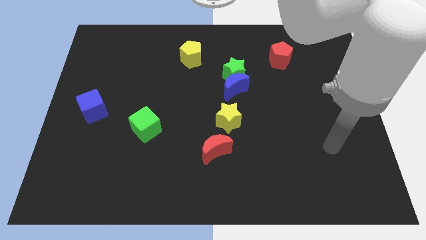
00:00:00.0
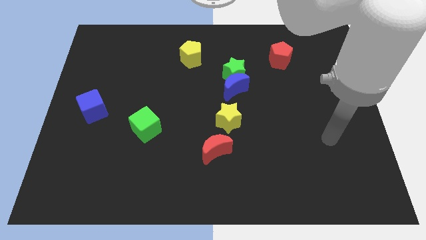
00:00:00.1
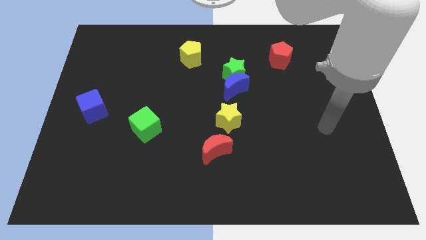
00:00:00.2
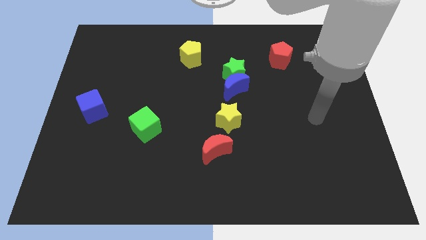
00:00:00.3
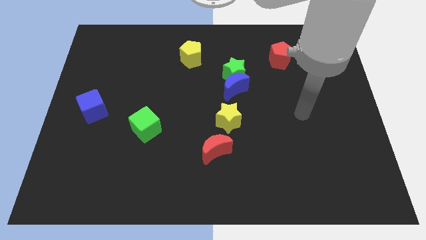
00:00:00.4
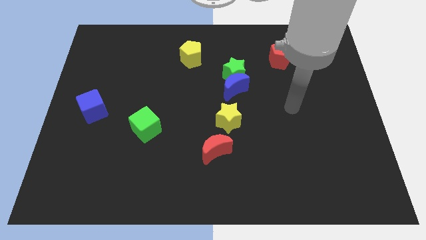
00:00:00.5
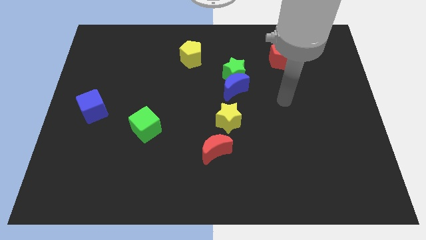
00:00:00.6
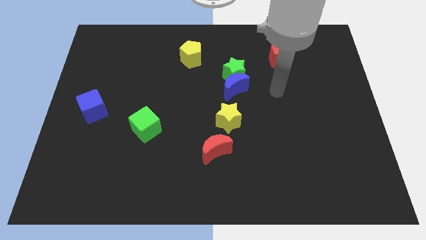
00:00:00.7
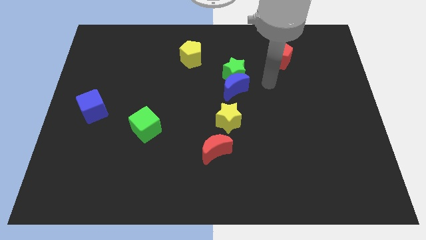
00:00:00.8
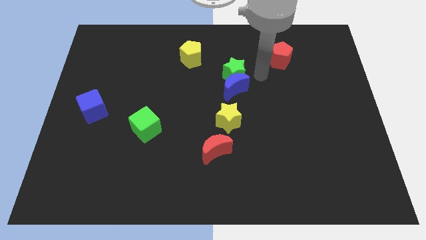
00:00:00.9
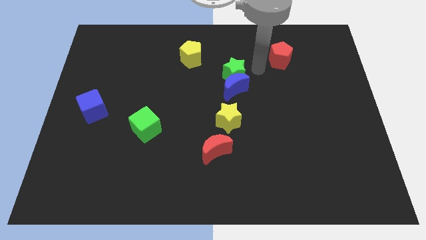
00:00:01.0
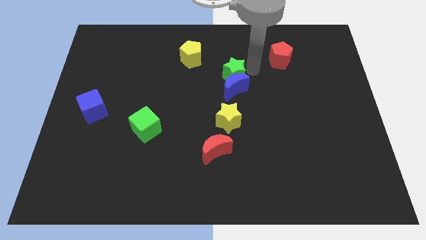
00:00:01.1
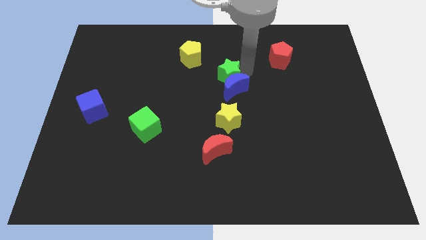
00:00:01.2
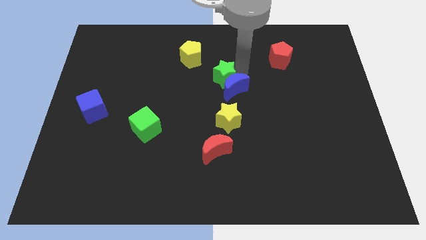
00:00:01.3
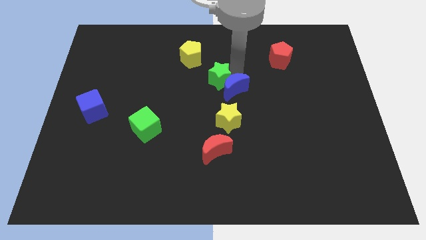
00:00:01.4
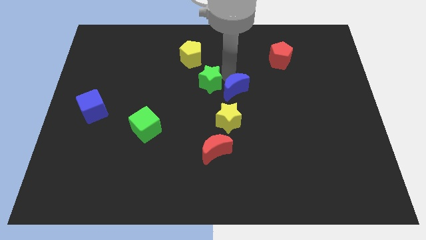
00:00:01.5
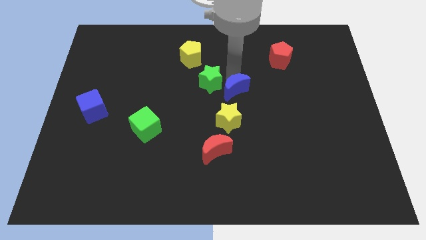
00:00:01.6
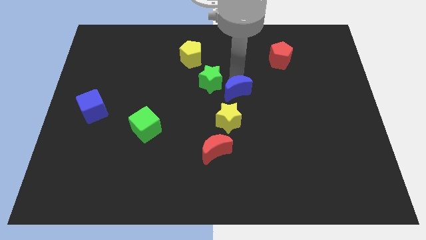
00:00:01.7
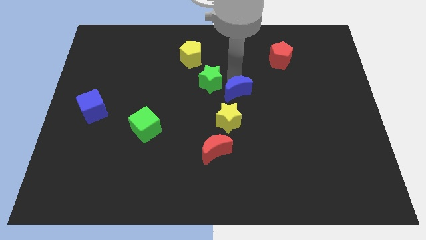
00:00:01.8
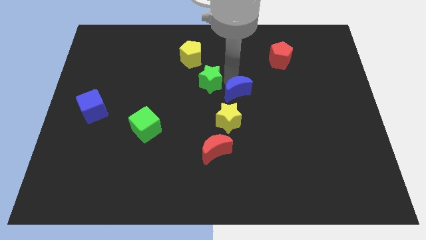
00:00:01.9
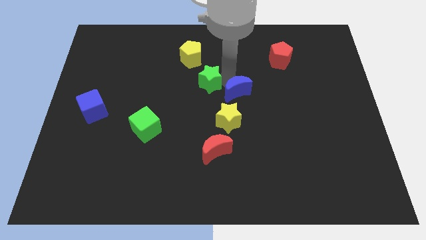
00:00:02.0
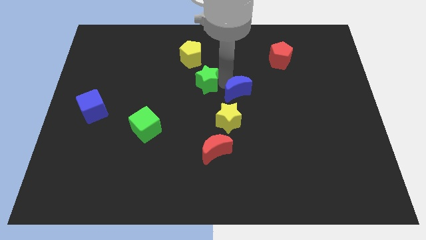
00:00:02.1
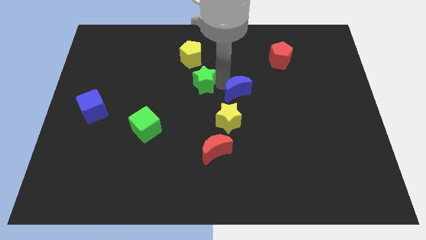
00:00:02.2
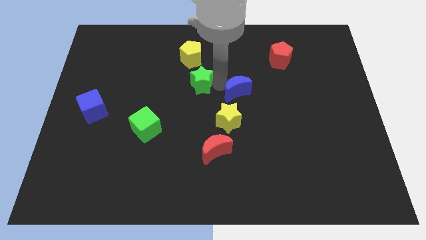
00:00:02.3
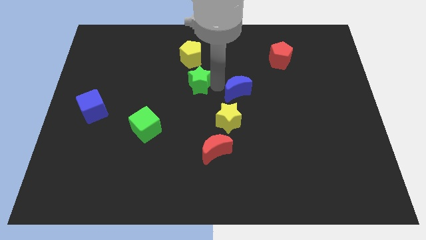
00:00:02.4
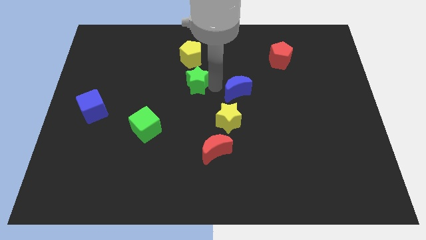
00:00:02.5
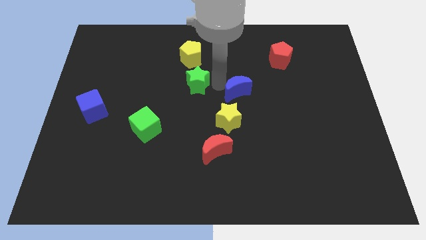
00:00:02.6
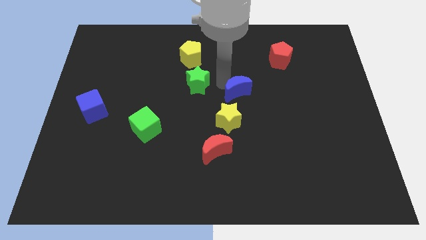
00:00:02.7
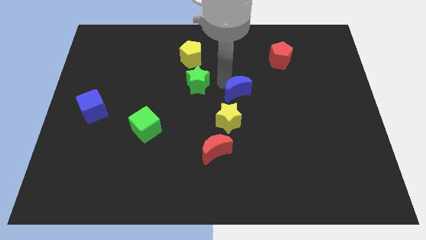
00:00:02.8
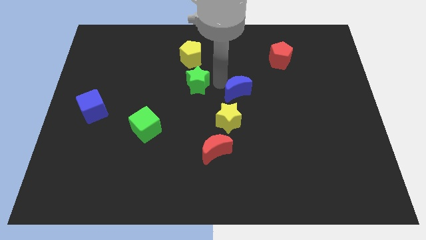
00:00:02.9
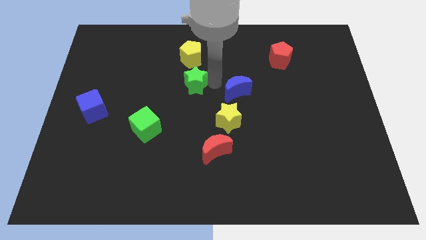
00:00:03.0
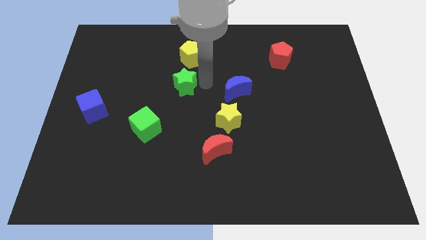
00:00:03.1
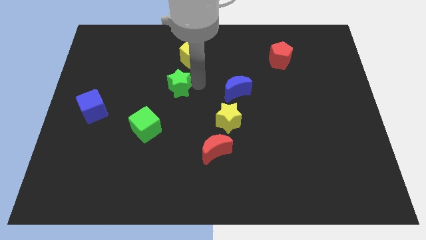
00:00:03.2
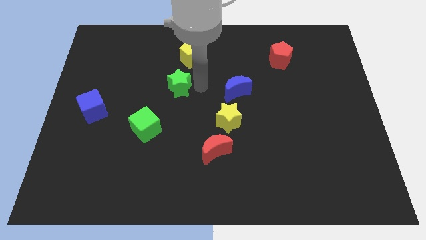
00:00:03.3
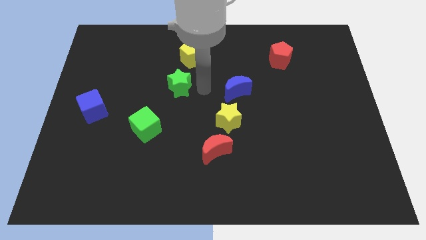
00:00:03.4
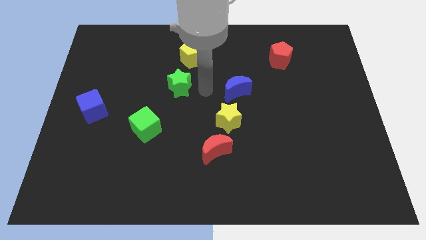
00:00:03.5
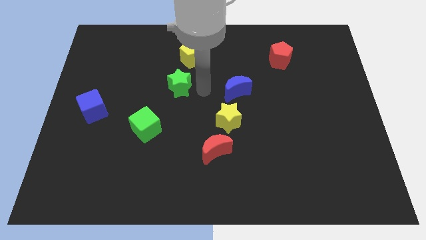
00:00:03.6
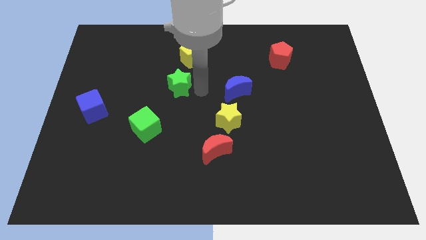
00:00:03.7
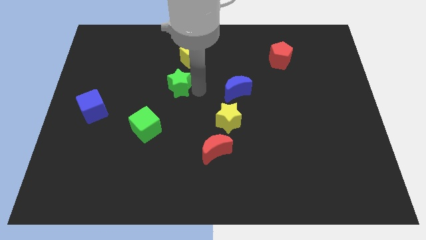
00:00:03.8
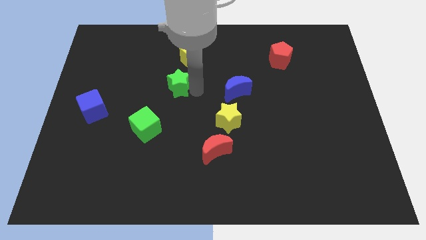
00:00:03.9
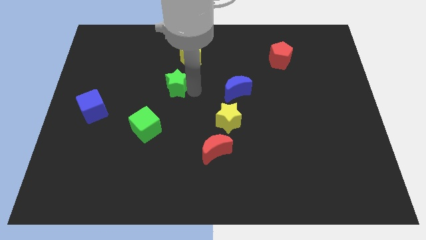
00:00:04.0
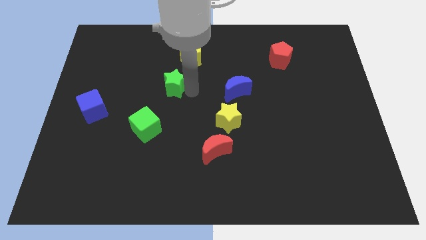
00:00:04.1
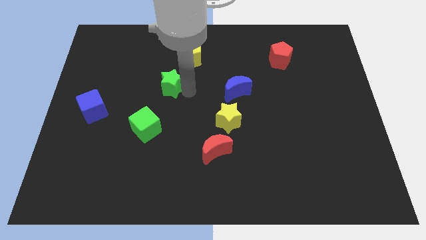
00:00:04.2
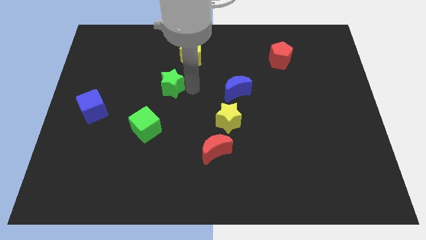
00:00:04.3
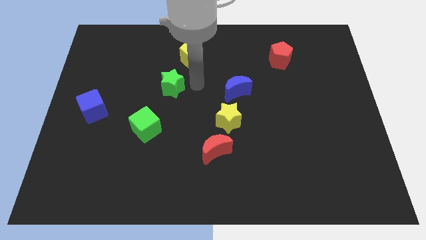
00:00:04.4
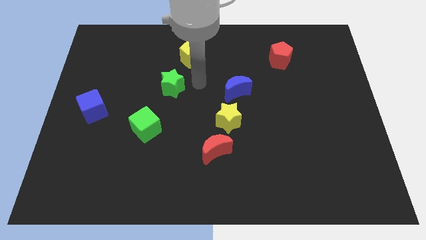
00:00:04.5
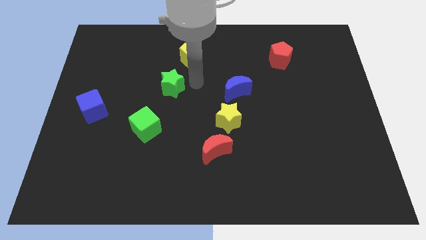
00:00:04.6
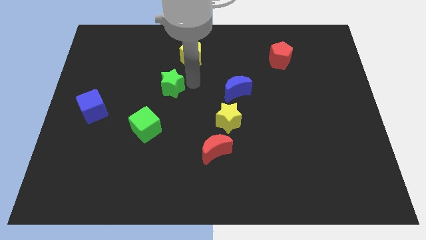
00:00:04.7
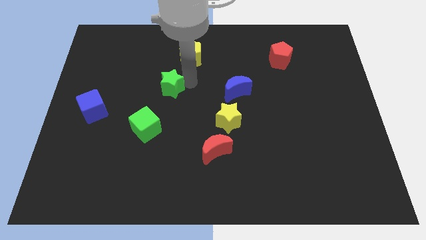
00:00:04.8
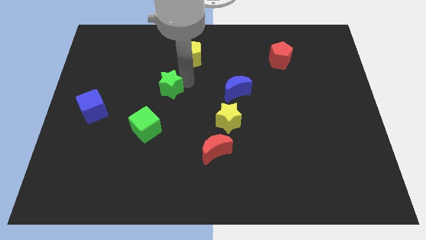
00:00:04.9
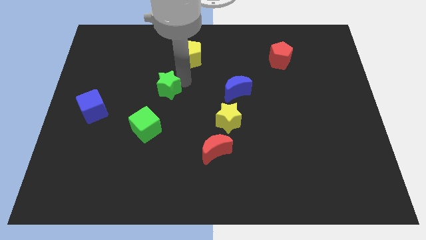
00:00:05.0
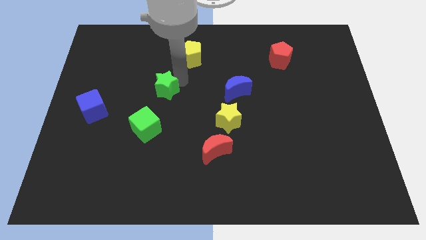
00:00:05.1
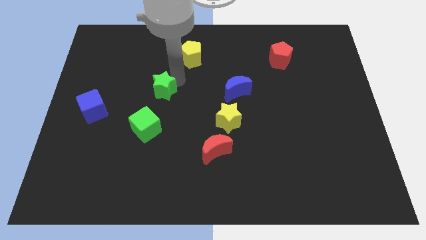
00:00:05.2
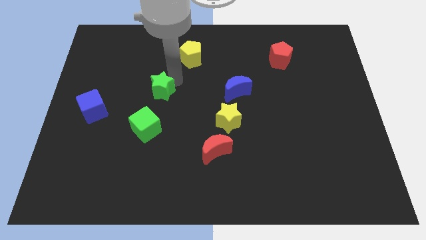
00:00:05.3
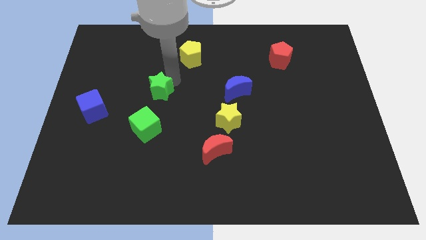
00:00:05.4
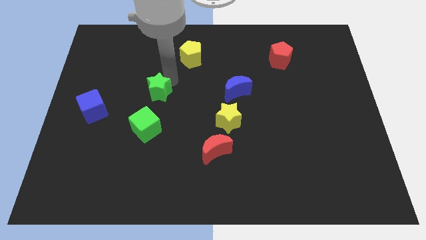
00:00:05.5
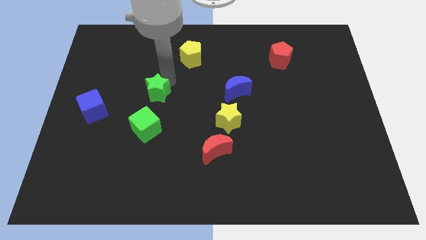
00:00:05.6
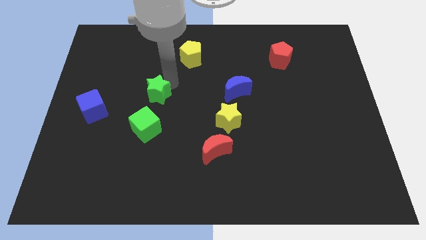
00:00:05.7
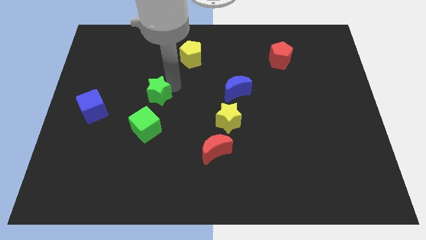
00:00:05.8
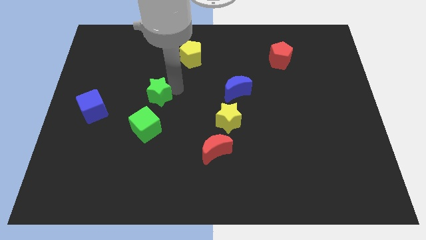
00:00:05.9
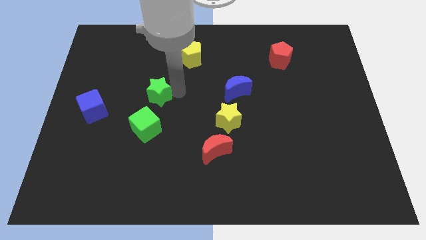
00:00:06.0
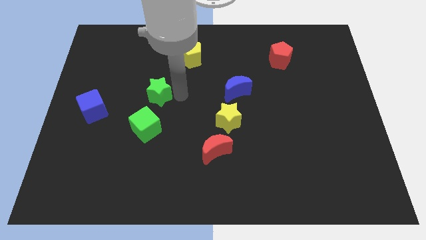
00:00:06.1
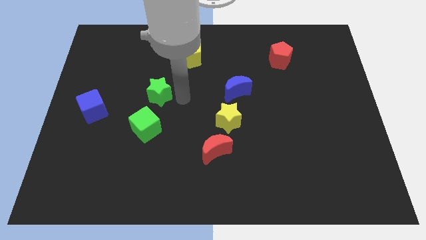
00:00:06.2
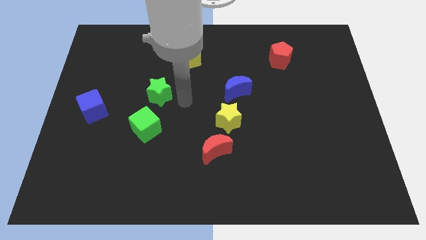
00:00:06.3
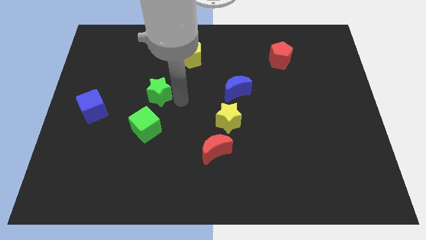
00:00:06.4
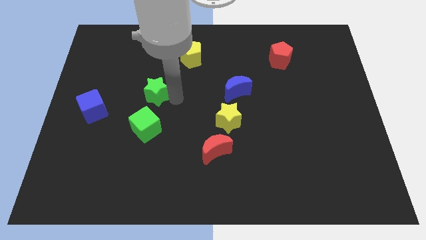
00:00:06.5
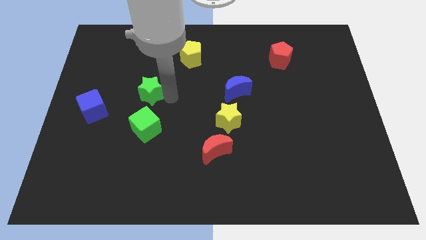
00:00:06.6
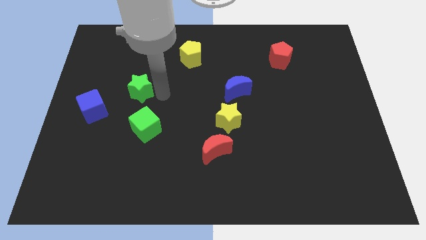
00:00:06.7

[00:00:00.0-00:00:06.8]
put the green star to the top right of the blue cube
